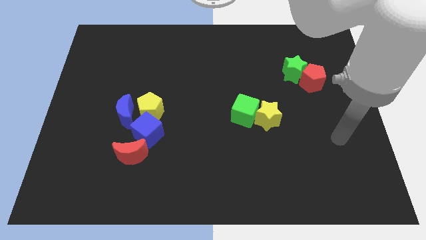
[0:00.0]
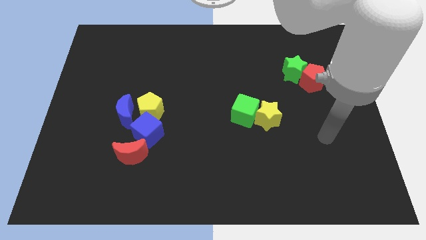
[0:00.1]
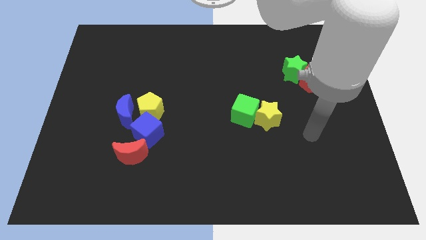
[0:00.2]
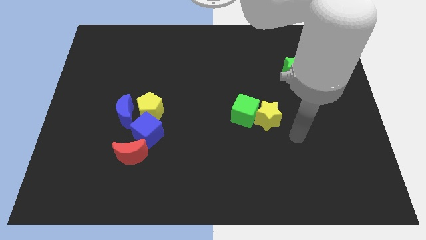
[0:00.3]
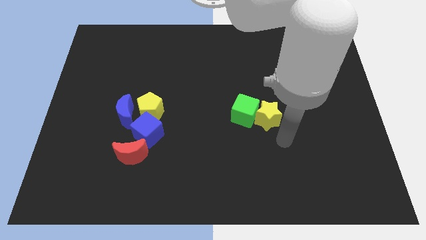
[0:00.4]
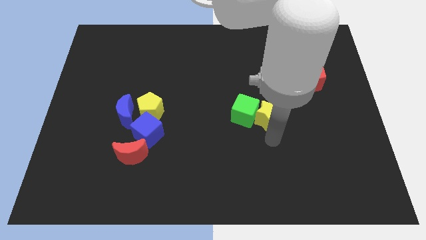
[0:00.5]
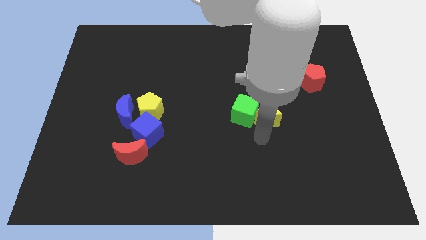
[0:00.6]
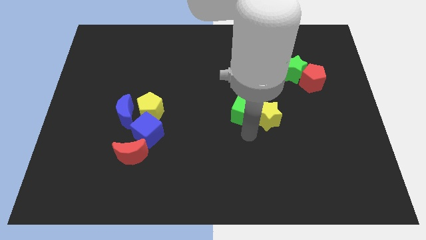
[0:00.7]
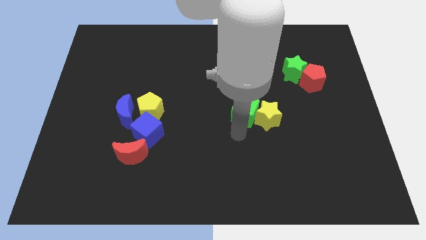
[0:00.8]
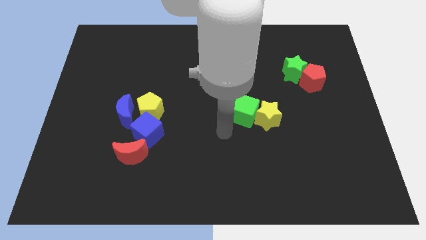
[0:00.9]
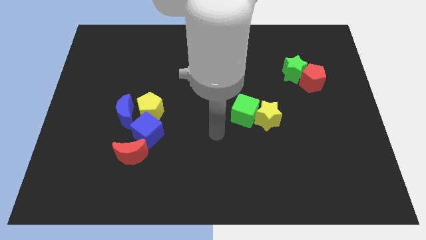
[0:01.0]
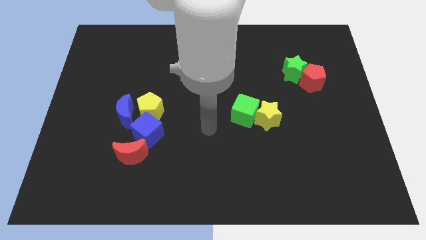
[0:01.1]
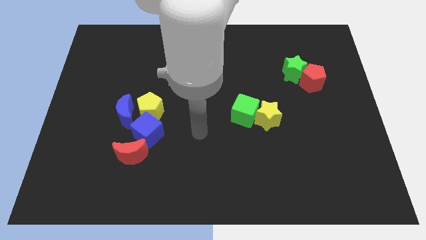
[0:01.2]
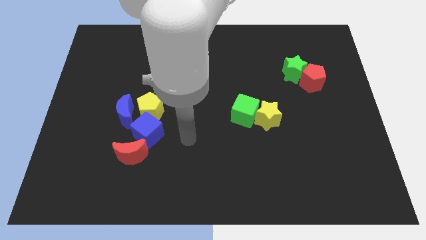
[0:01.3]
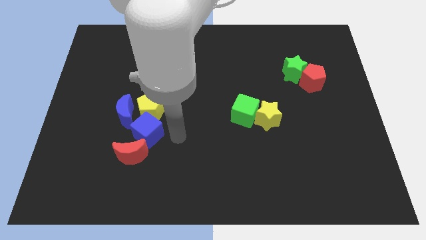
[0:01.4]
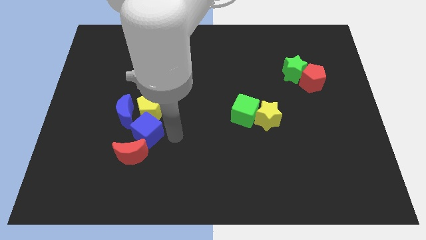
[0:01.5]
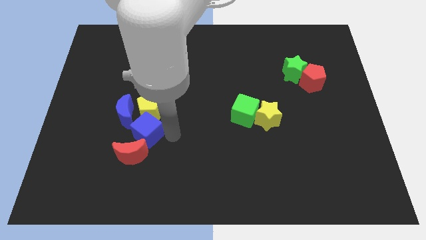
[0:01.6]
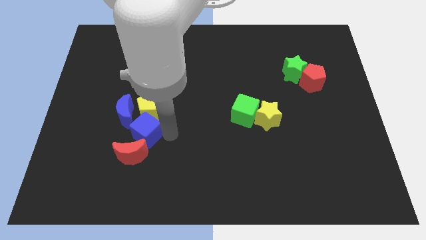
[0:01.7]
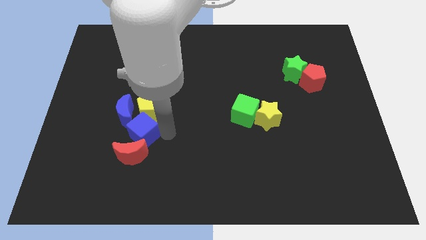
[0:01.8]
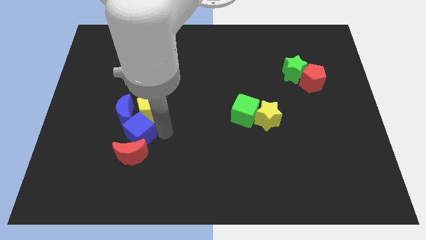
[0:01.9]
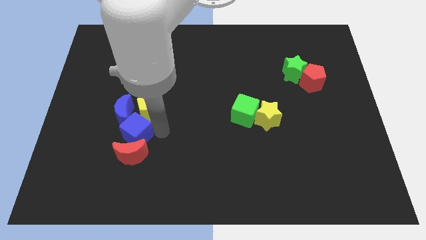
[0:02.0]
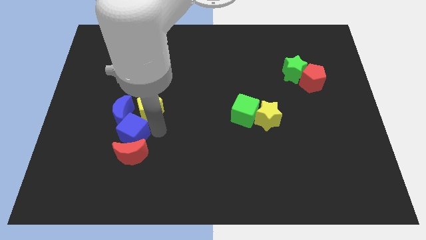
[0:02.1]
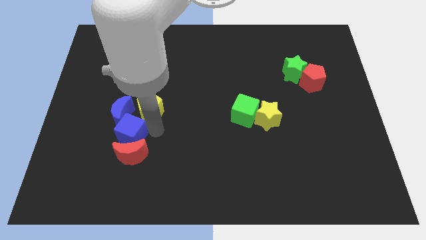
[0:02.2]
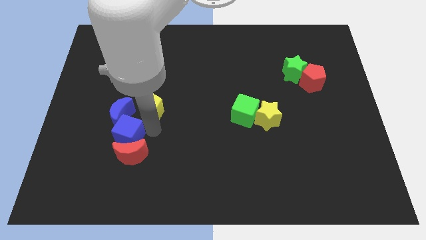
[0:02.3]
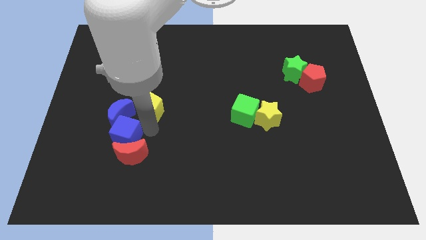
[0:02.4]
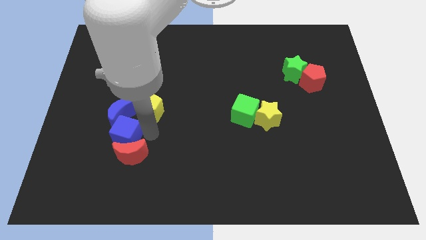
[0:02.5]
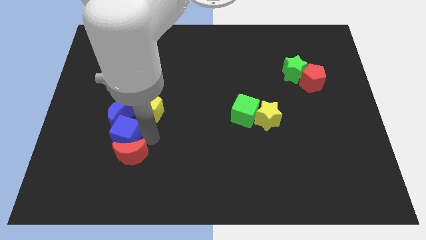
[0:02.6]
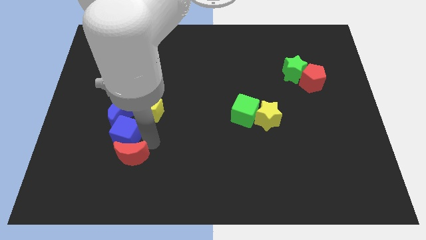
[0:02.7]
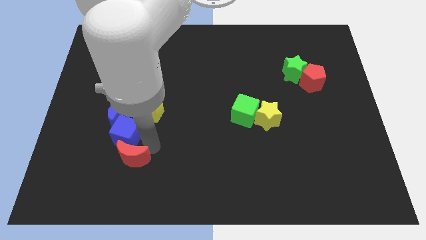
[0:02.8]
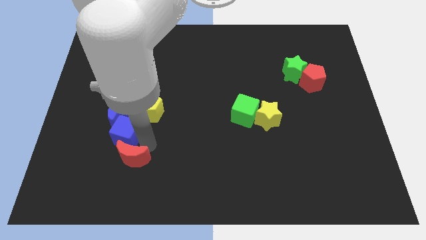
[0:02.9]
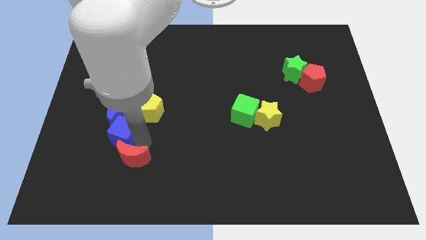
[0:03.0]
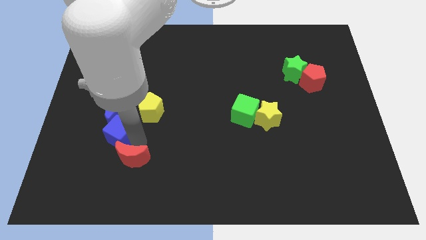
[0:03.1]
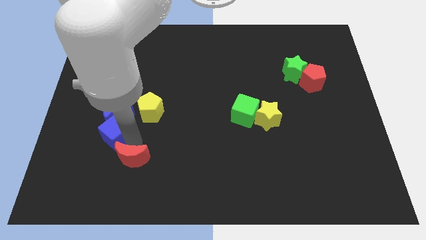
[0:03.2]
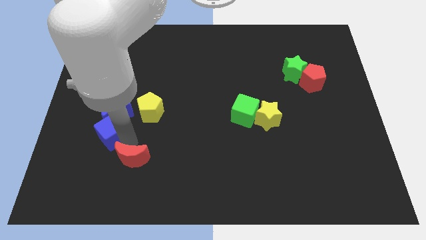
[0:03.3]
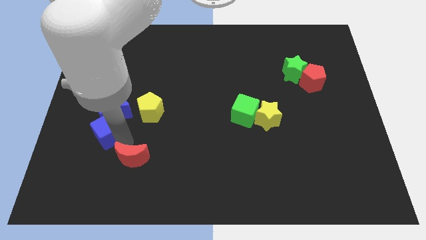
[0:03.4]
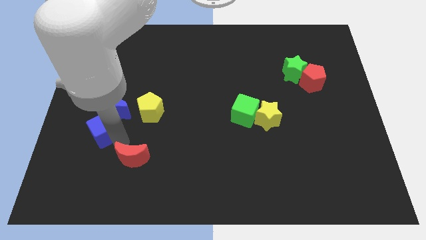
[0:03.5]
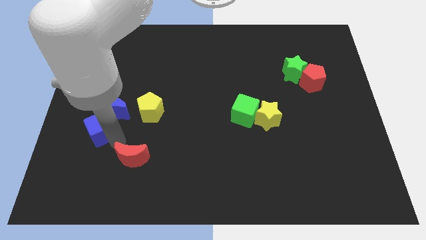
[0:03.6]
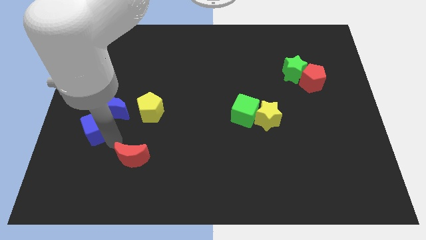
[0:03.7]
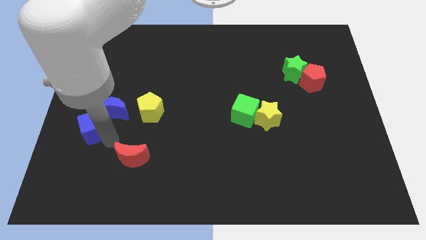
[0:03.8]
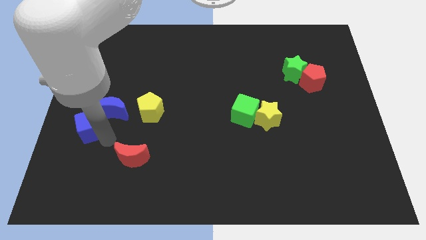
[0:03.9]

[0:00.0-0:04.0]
move the blue cube diagonally up and left somewhat

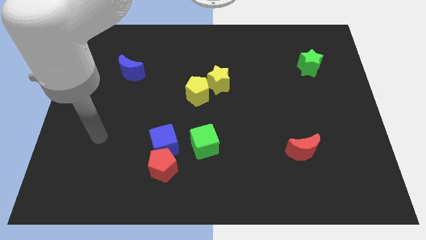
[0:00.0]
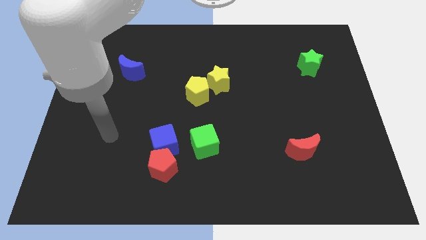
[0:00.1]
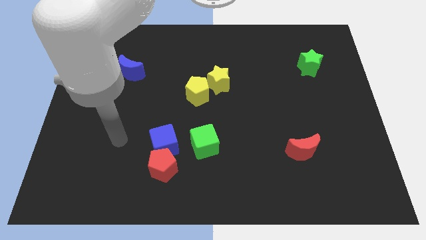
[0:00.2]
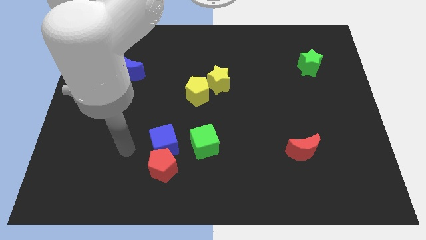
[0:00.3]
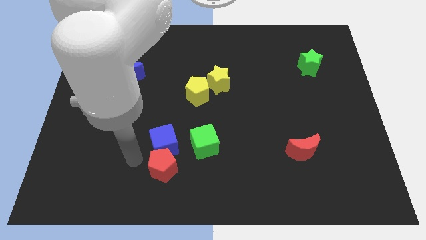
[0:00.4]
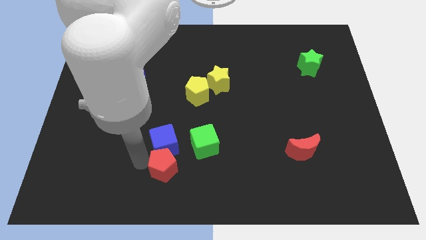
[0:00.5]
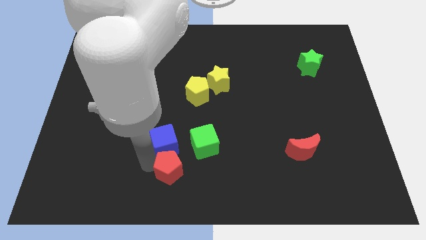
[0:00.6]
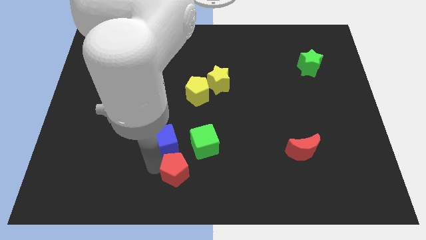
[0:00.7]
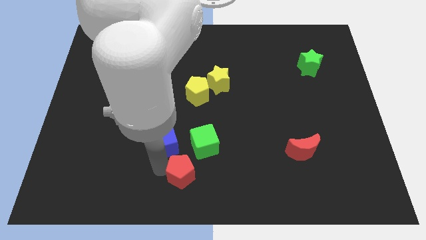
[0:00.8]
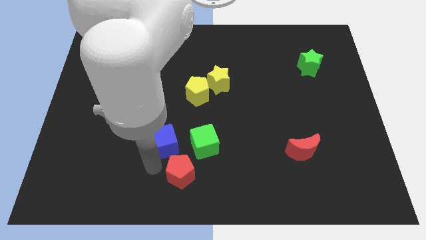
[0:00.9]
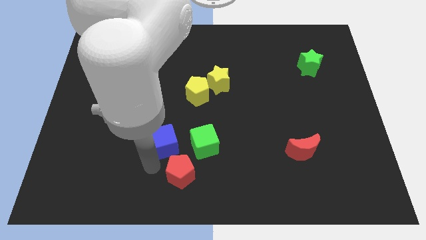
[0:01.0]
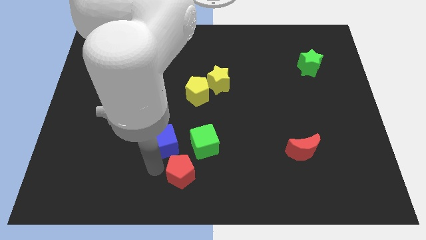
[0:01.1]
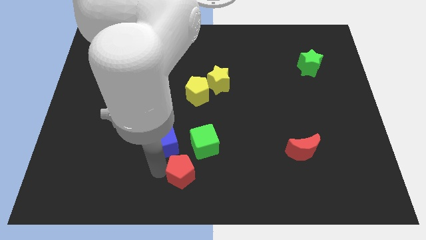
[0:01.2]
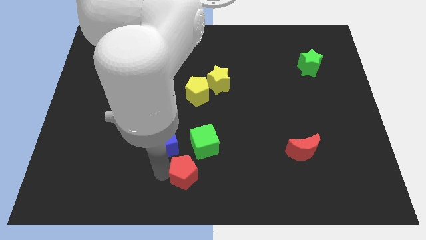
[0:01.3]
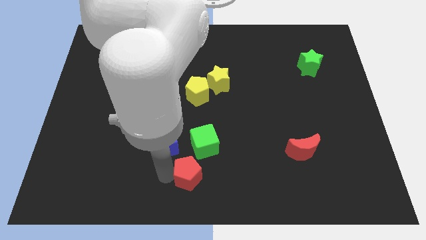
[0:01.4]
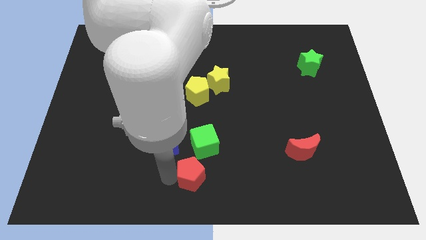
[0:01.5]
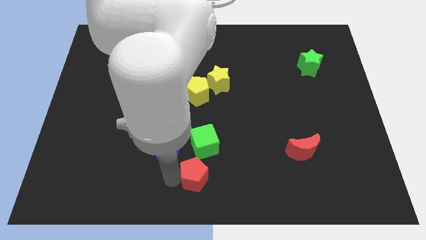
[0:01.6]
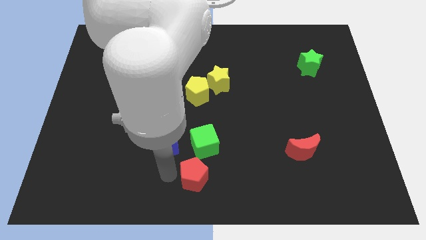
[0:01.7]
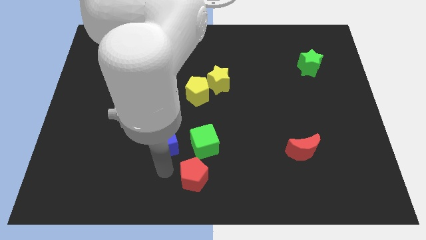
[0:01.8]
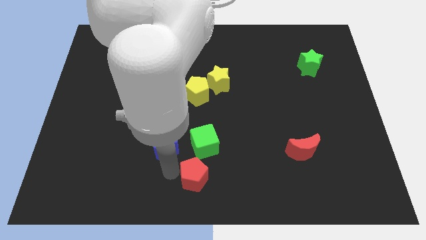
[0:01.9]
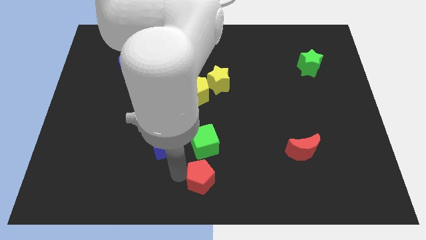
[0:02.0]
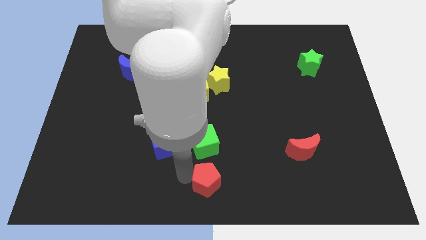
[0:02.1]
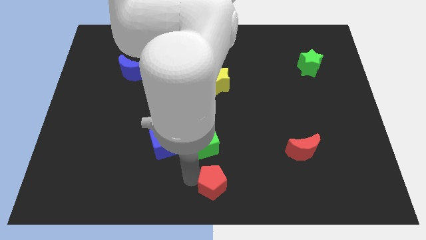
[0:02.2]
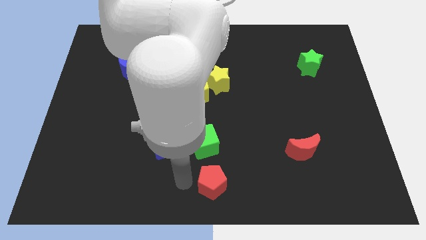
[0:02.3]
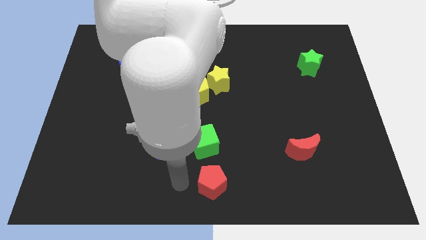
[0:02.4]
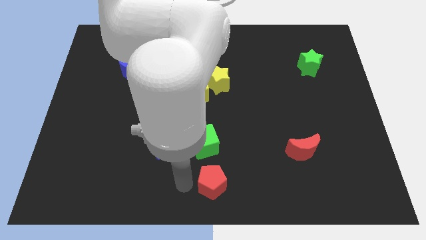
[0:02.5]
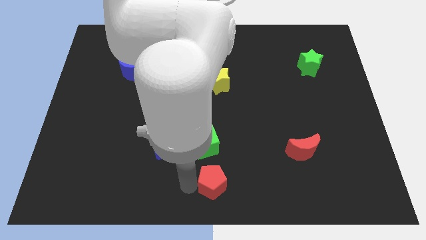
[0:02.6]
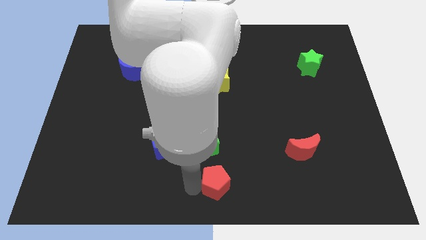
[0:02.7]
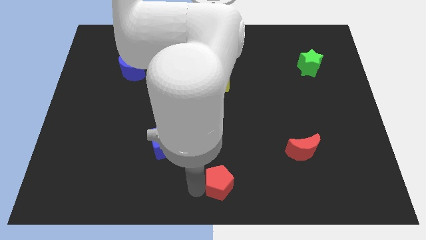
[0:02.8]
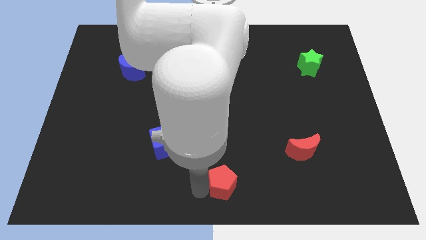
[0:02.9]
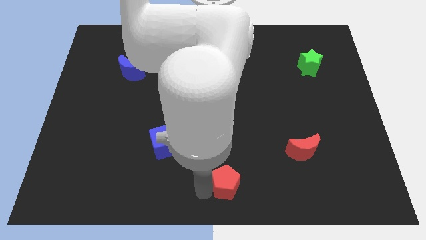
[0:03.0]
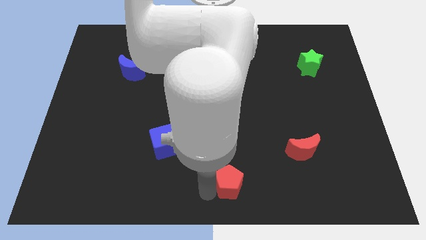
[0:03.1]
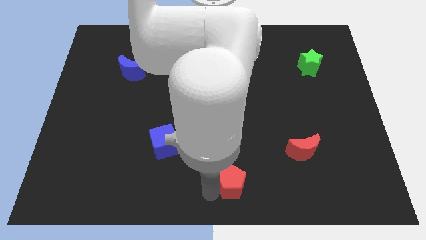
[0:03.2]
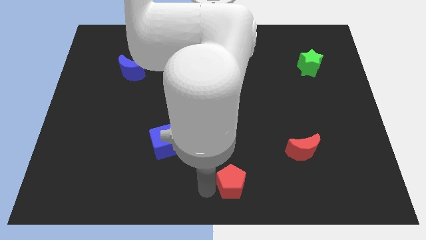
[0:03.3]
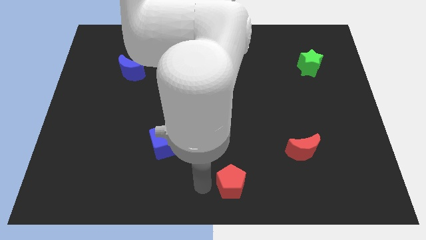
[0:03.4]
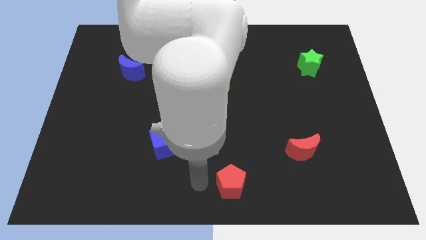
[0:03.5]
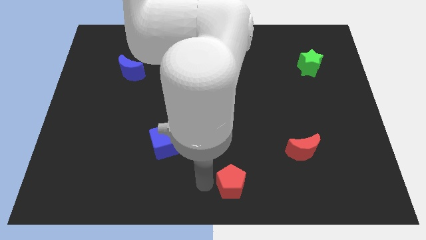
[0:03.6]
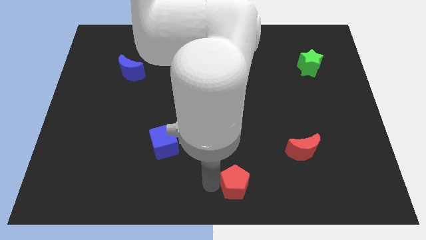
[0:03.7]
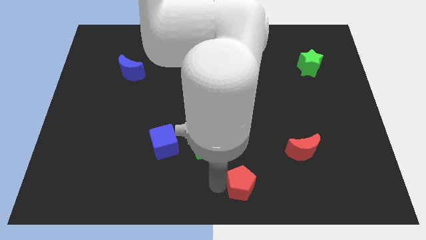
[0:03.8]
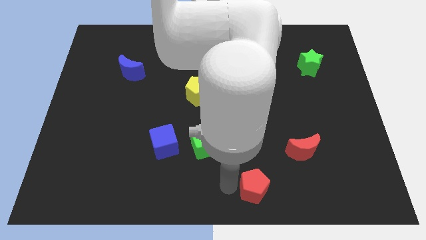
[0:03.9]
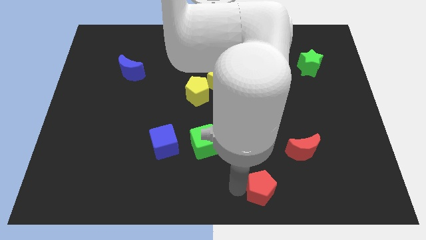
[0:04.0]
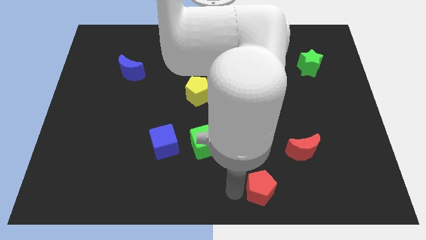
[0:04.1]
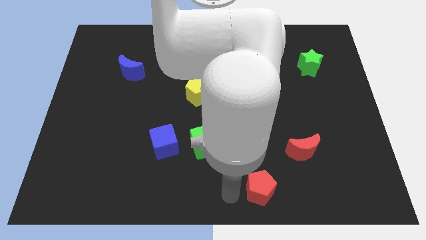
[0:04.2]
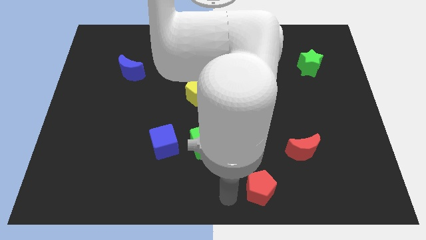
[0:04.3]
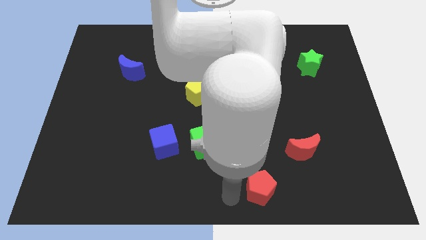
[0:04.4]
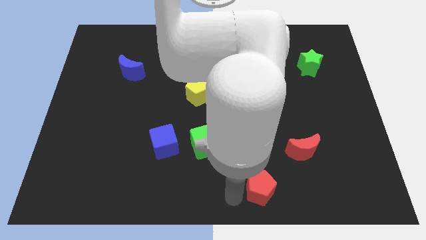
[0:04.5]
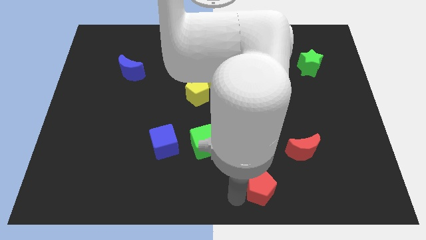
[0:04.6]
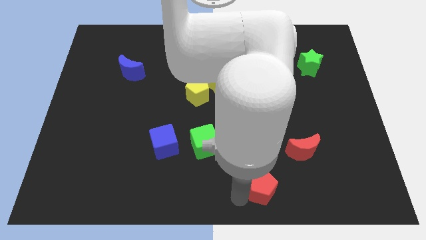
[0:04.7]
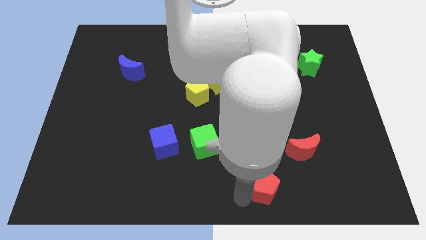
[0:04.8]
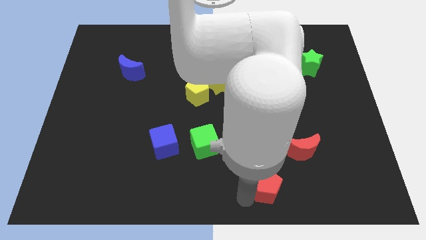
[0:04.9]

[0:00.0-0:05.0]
slide the red pentagon right

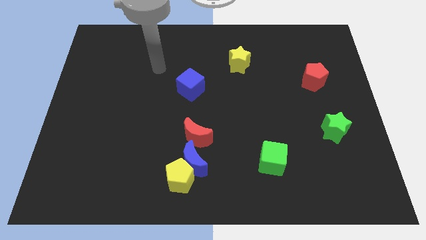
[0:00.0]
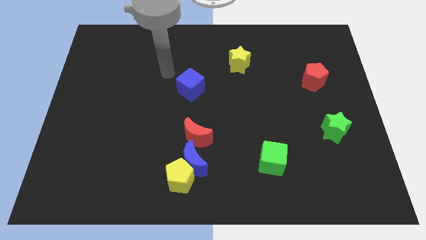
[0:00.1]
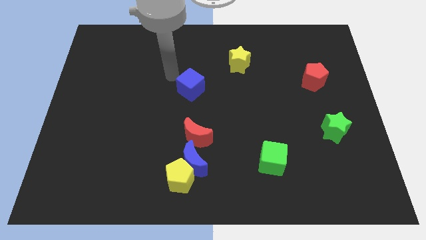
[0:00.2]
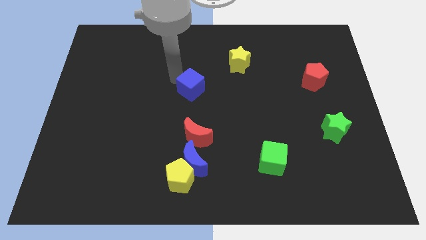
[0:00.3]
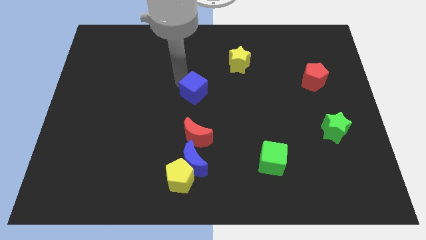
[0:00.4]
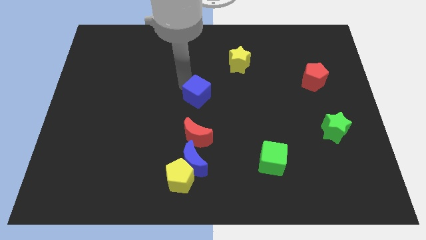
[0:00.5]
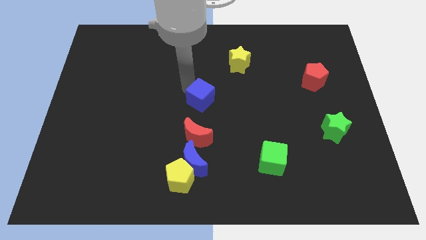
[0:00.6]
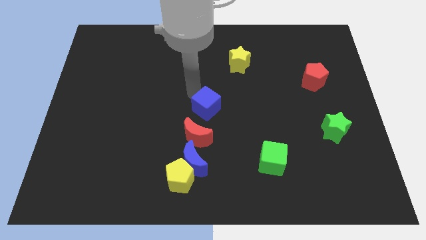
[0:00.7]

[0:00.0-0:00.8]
move the blue cube a little bit downwards and right
